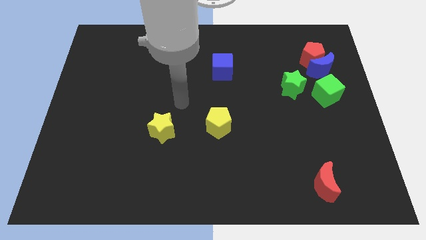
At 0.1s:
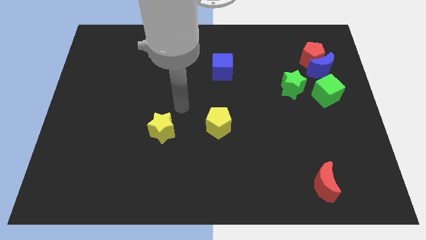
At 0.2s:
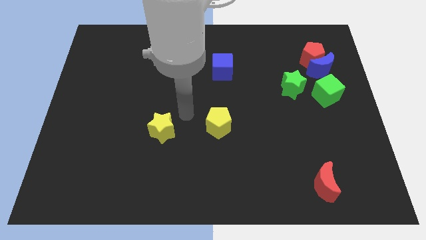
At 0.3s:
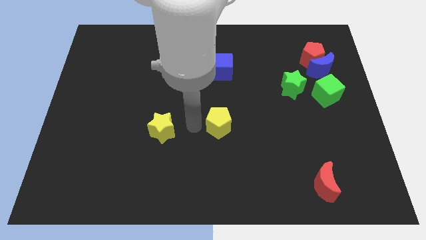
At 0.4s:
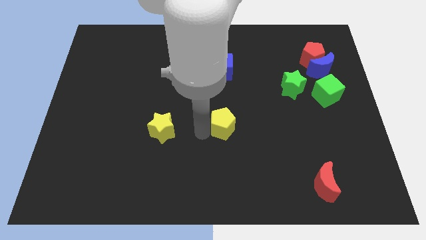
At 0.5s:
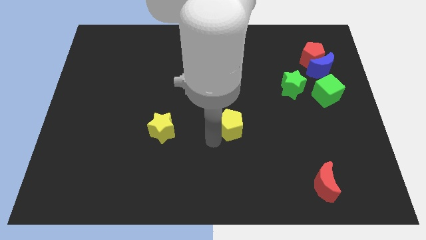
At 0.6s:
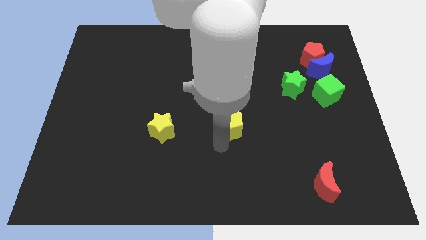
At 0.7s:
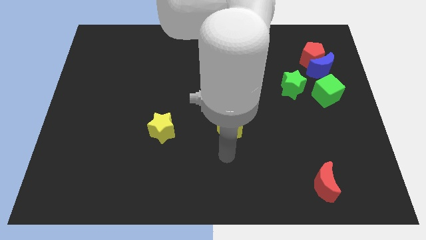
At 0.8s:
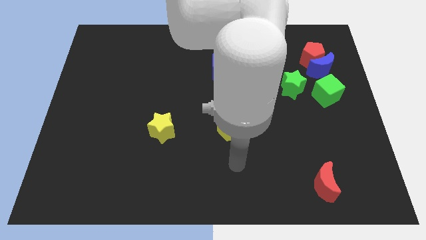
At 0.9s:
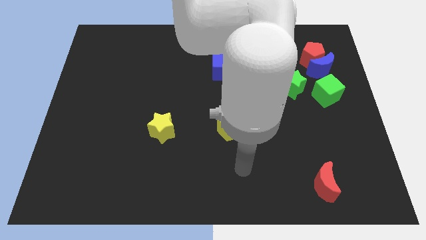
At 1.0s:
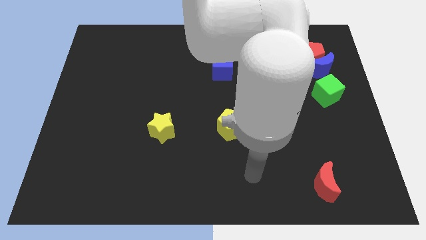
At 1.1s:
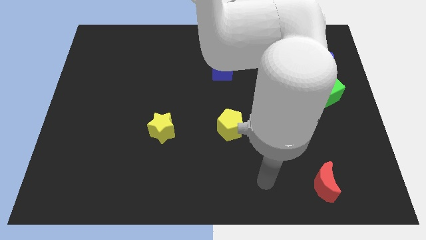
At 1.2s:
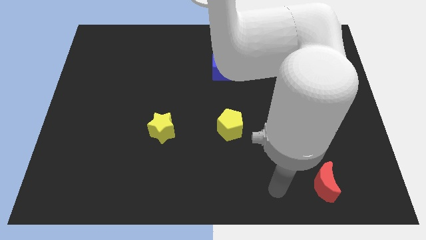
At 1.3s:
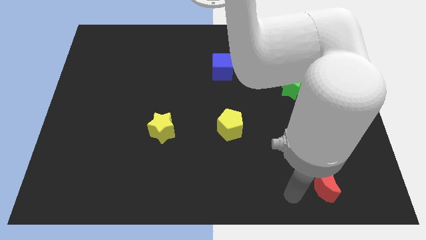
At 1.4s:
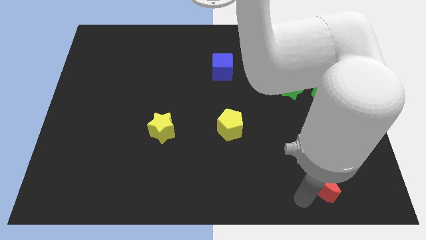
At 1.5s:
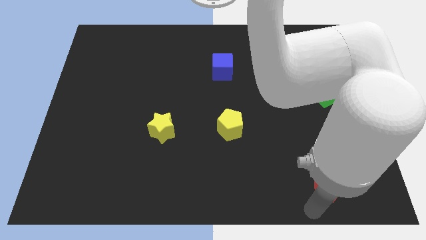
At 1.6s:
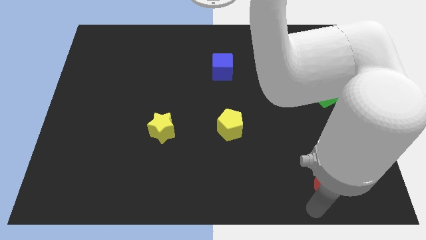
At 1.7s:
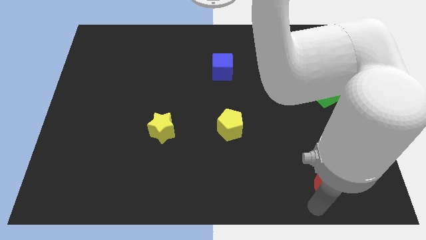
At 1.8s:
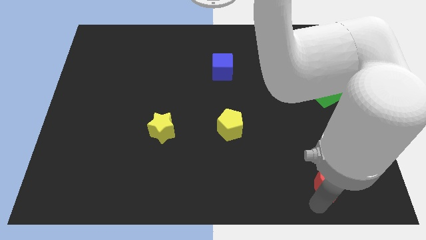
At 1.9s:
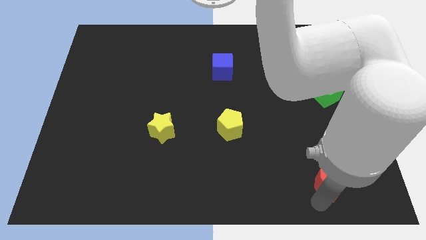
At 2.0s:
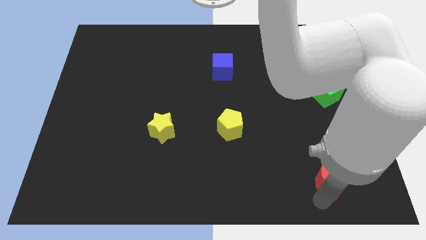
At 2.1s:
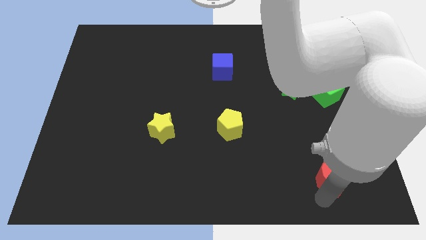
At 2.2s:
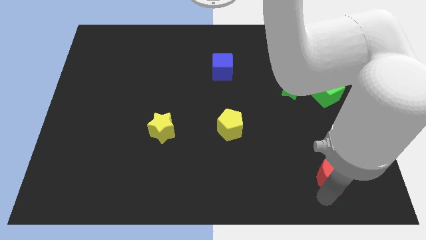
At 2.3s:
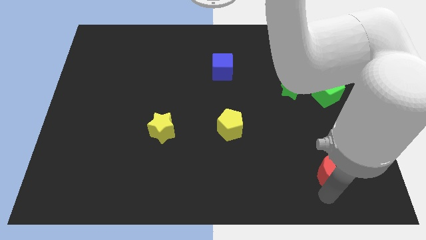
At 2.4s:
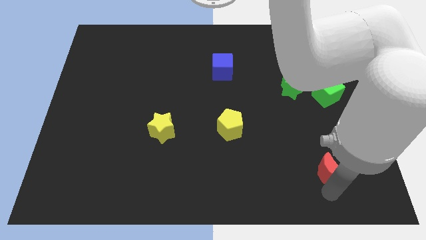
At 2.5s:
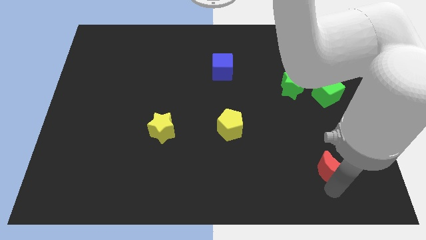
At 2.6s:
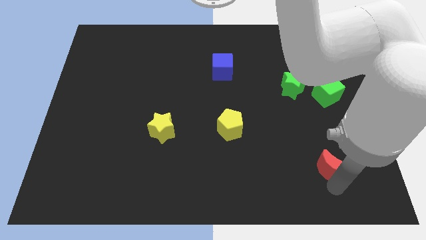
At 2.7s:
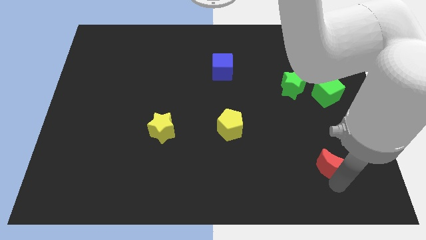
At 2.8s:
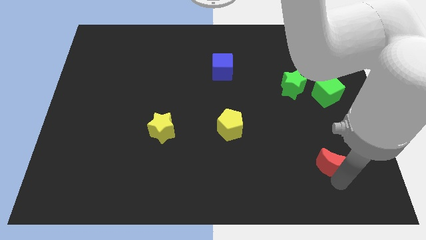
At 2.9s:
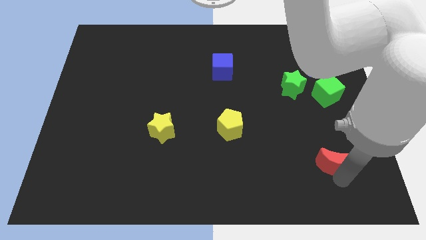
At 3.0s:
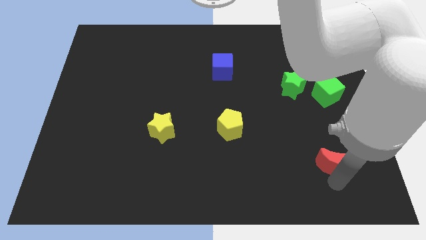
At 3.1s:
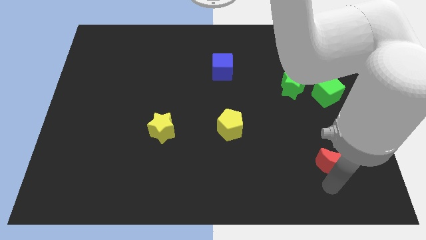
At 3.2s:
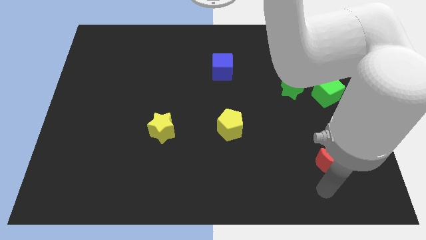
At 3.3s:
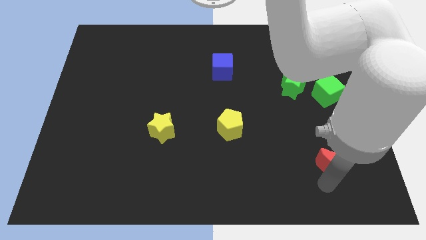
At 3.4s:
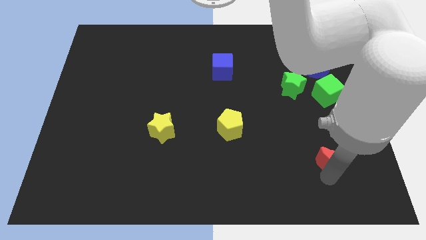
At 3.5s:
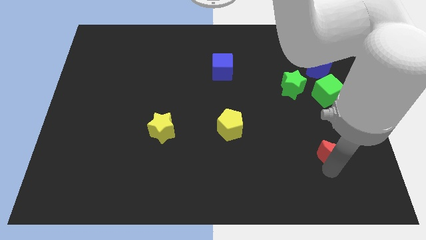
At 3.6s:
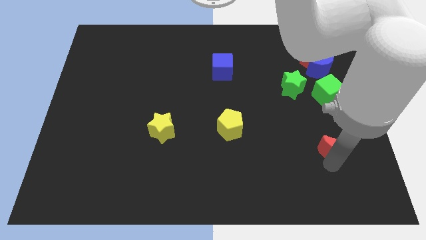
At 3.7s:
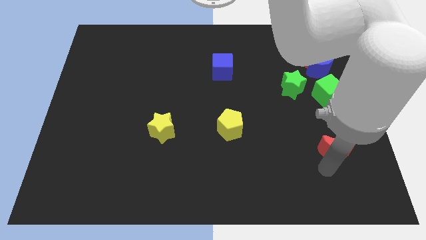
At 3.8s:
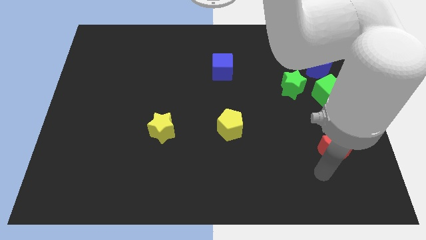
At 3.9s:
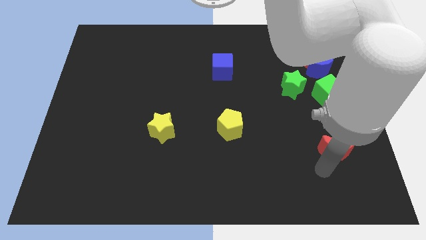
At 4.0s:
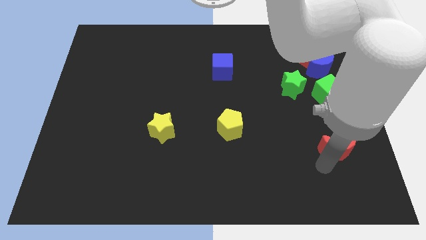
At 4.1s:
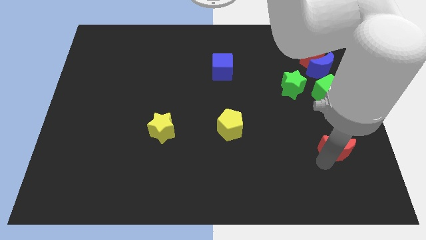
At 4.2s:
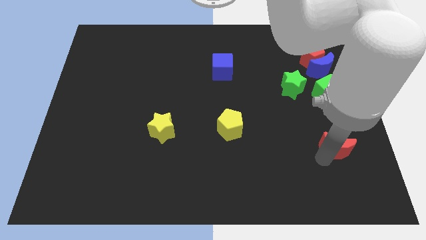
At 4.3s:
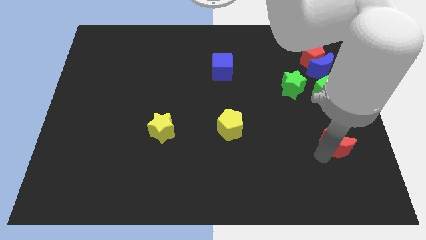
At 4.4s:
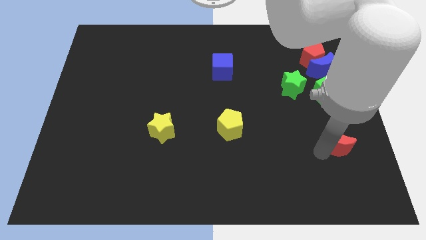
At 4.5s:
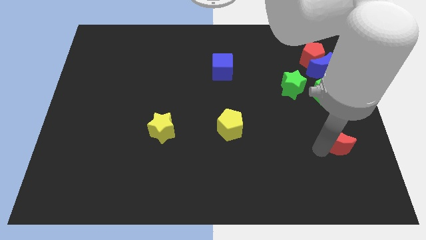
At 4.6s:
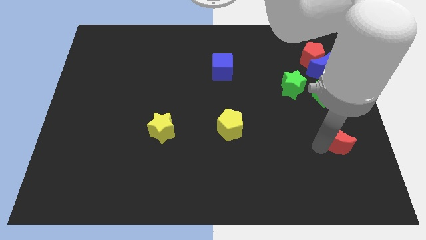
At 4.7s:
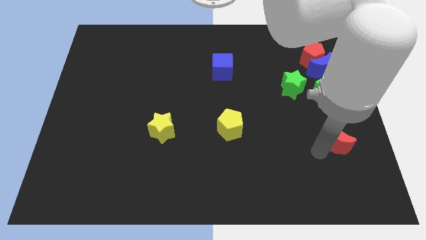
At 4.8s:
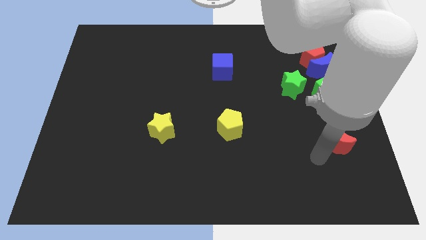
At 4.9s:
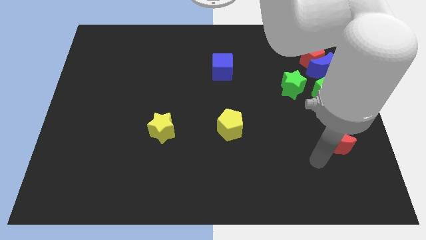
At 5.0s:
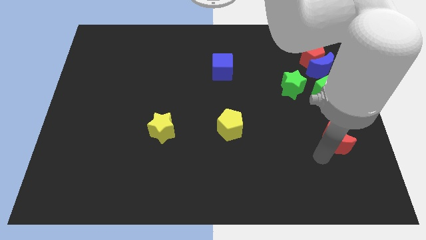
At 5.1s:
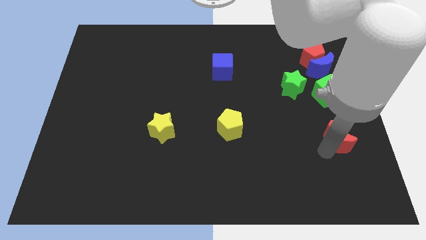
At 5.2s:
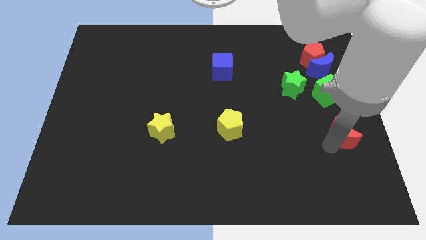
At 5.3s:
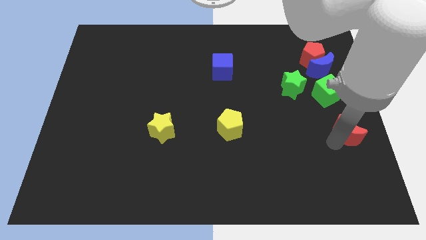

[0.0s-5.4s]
move the red moon to the right side of the board

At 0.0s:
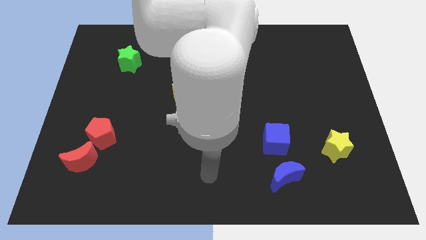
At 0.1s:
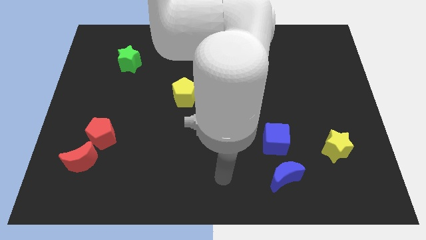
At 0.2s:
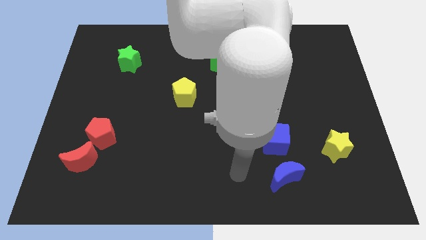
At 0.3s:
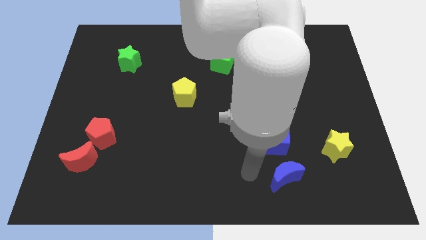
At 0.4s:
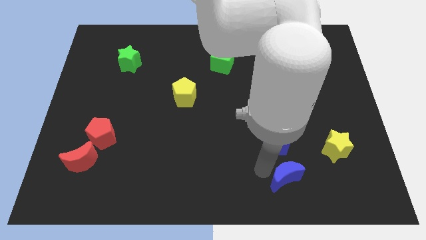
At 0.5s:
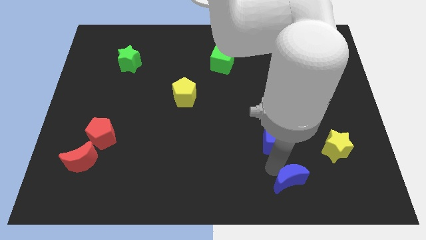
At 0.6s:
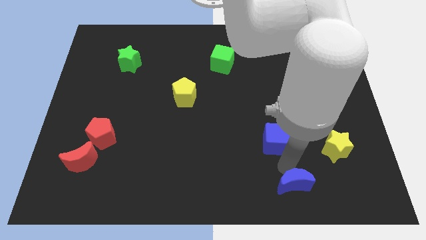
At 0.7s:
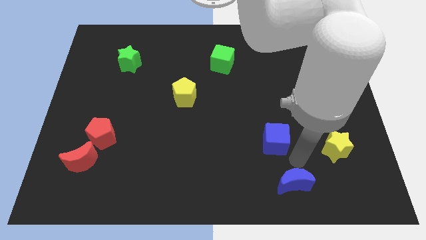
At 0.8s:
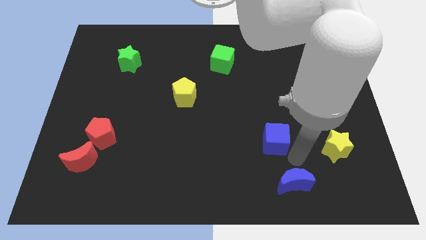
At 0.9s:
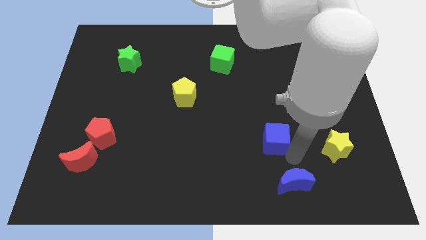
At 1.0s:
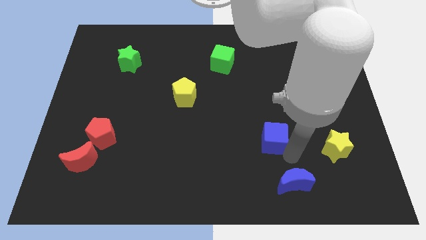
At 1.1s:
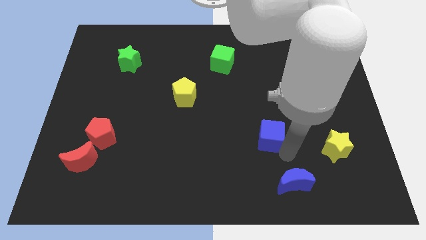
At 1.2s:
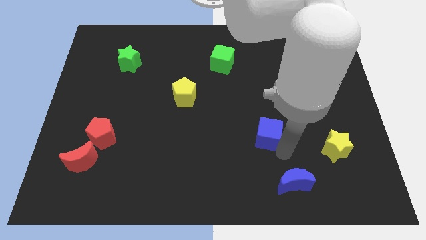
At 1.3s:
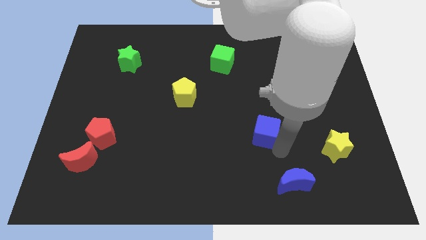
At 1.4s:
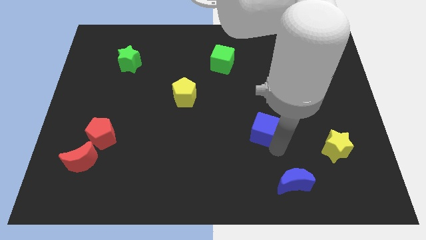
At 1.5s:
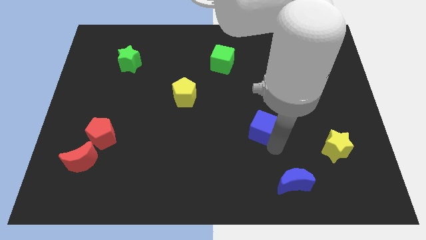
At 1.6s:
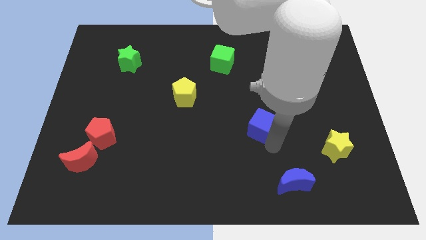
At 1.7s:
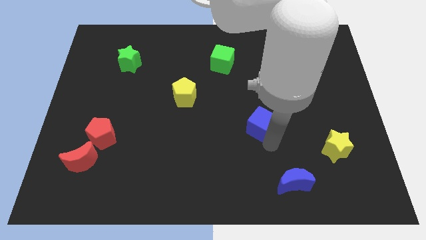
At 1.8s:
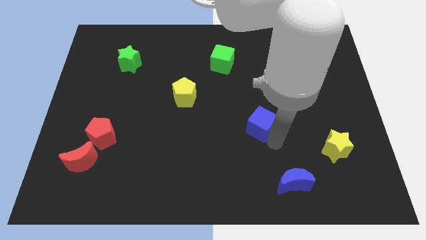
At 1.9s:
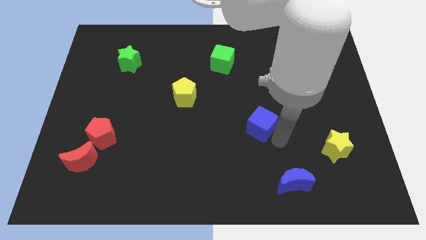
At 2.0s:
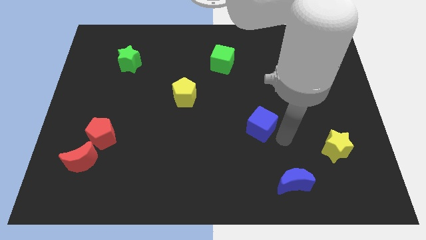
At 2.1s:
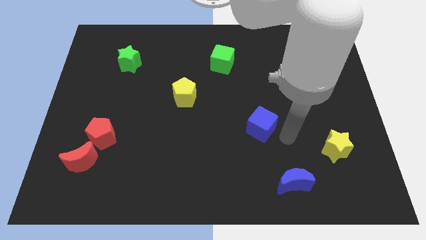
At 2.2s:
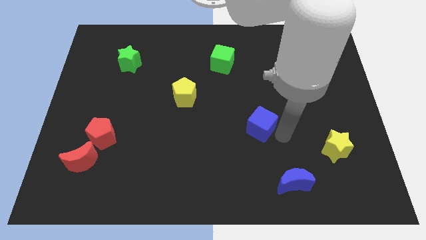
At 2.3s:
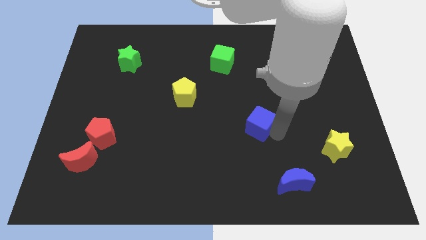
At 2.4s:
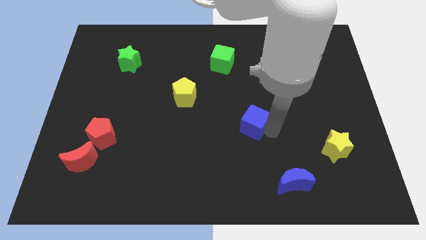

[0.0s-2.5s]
put the blue cube to the center of the board
